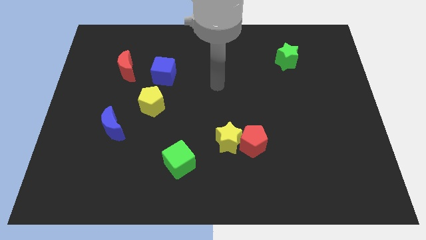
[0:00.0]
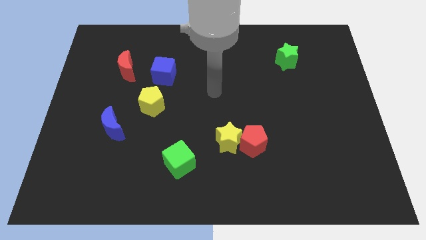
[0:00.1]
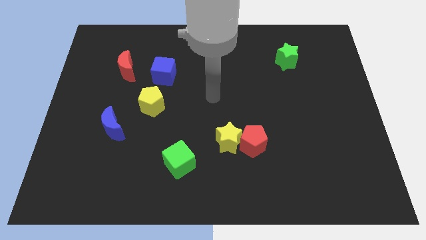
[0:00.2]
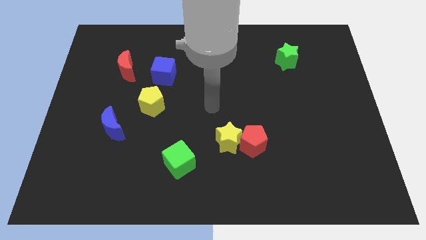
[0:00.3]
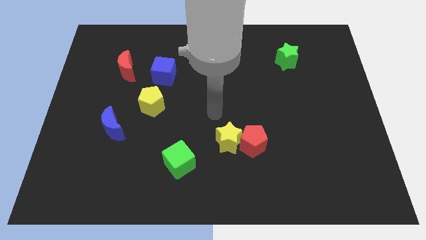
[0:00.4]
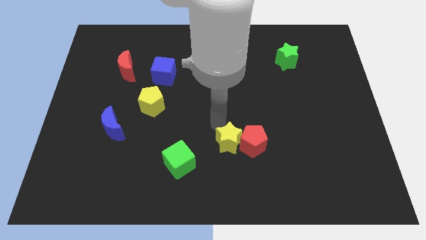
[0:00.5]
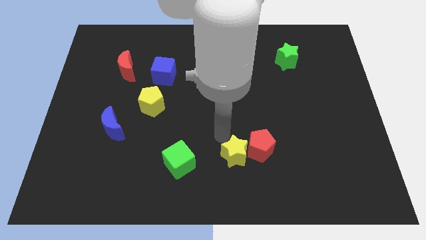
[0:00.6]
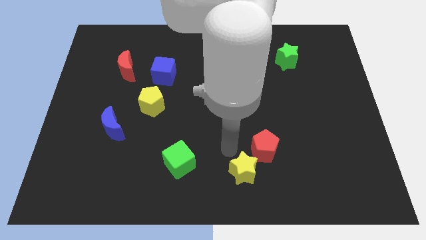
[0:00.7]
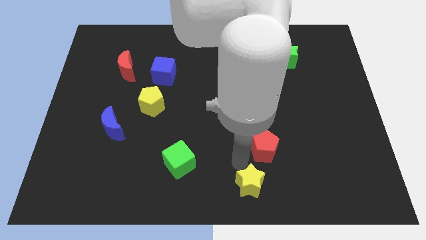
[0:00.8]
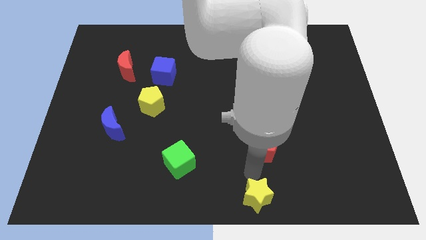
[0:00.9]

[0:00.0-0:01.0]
pull the red pentagon apart from the yellow star

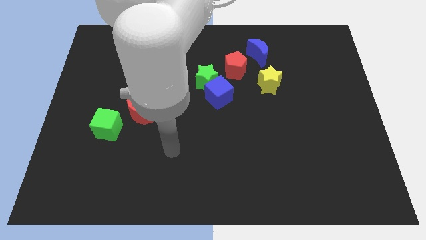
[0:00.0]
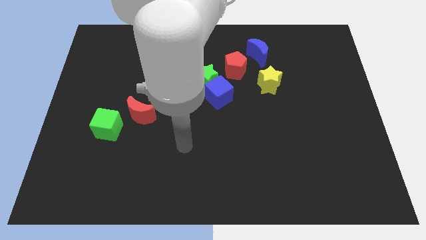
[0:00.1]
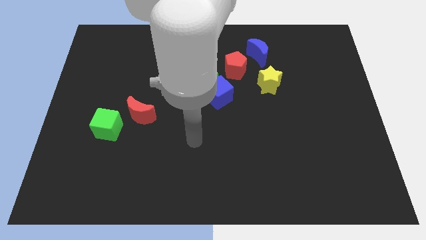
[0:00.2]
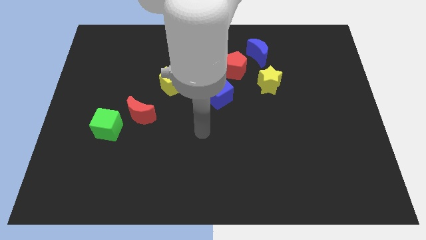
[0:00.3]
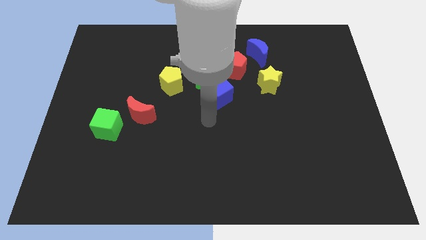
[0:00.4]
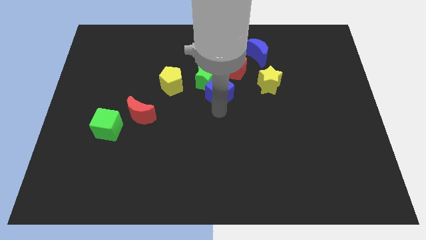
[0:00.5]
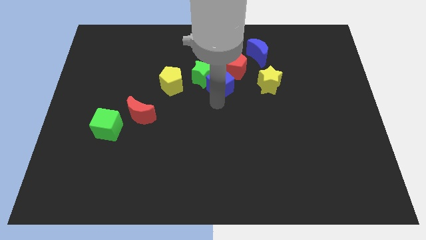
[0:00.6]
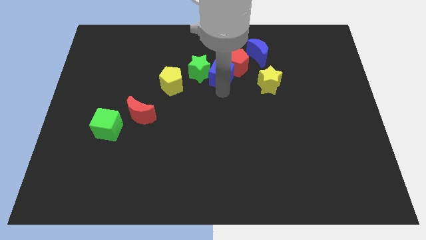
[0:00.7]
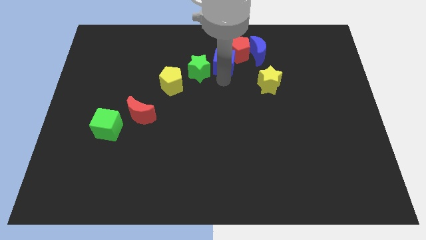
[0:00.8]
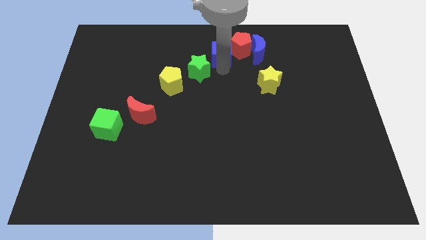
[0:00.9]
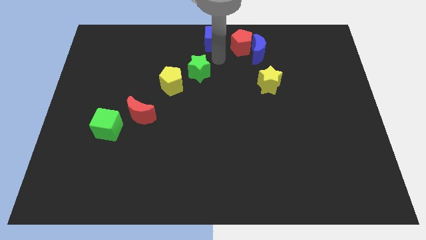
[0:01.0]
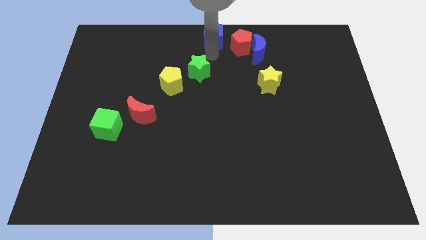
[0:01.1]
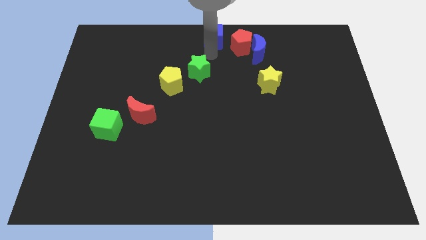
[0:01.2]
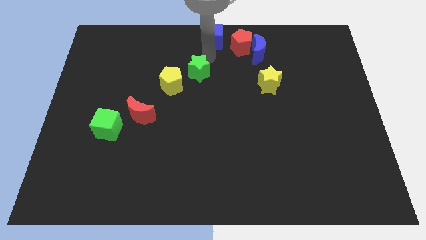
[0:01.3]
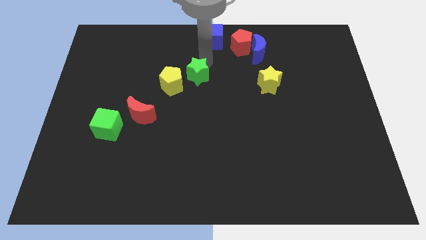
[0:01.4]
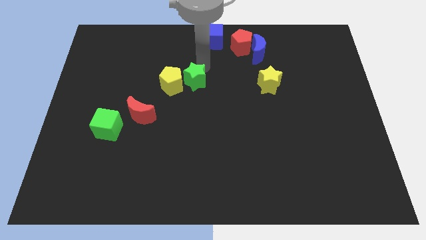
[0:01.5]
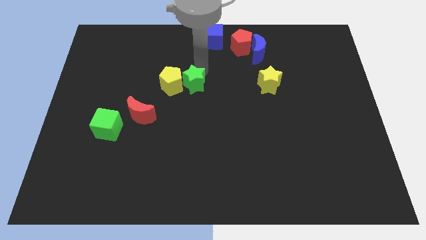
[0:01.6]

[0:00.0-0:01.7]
pull the green star apart from the group of blocks

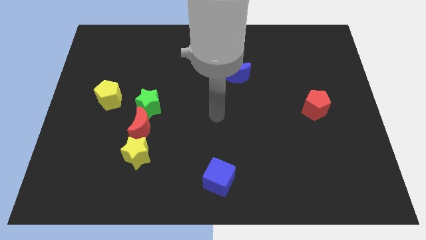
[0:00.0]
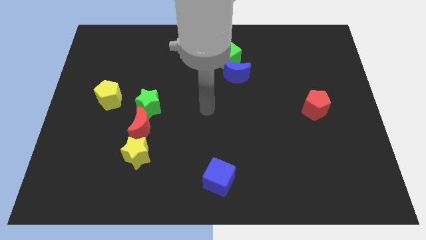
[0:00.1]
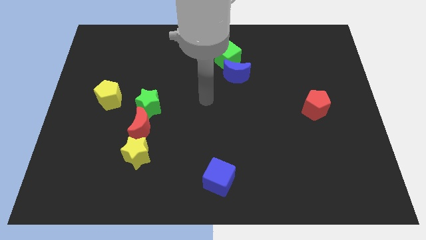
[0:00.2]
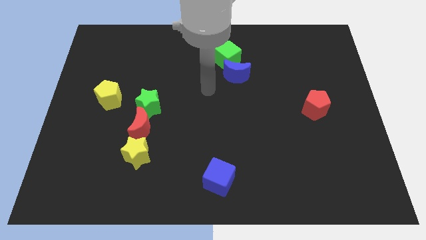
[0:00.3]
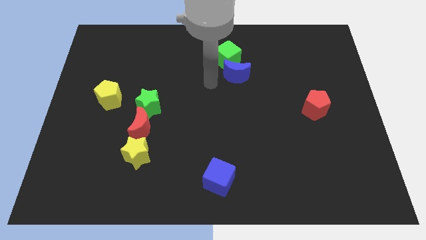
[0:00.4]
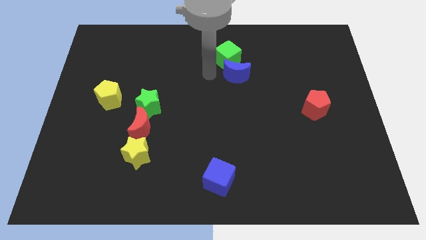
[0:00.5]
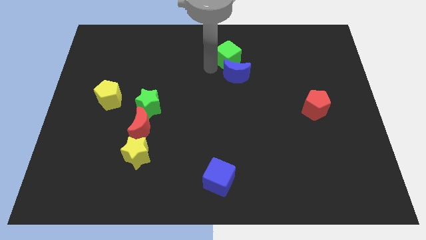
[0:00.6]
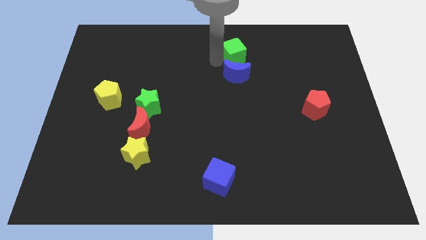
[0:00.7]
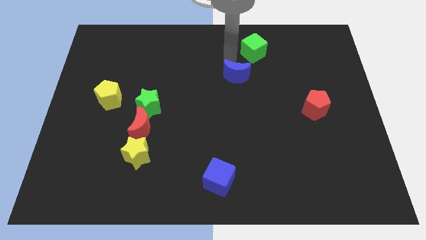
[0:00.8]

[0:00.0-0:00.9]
move the blue moon away from the green cube

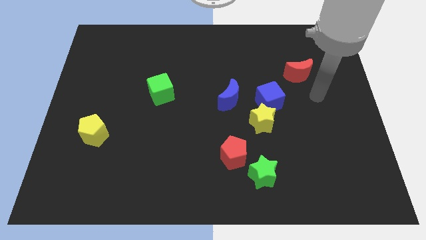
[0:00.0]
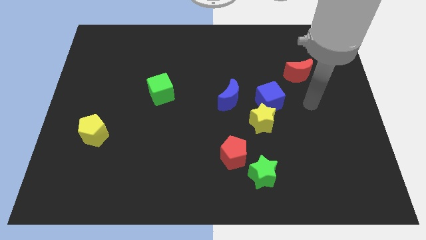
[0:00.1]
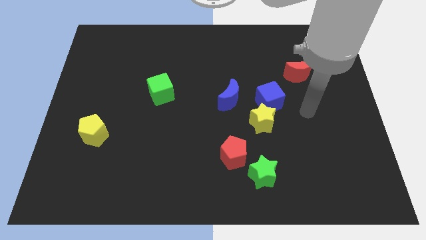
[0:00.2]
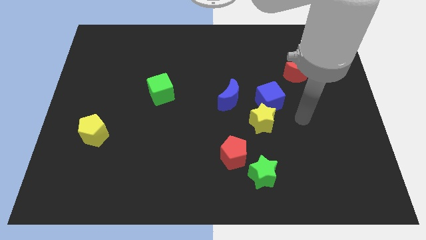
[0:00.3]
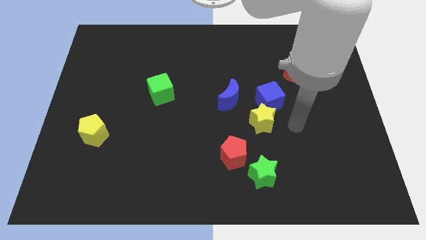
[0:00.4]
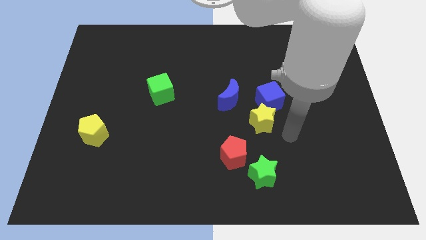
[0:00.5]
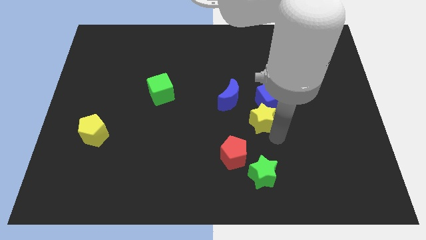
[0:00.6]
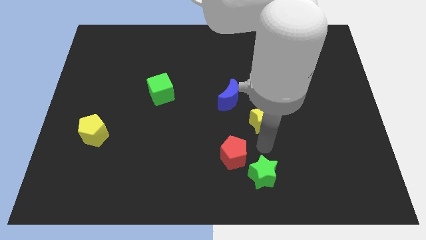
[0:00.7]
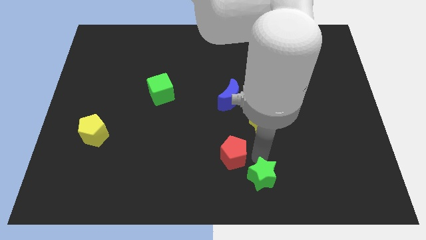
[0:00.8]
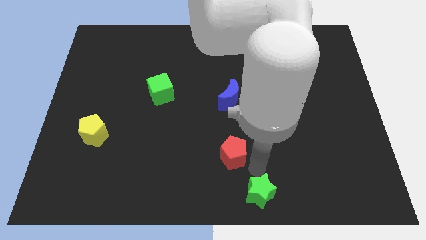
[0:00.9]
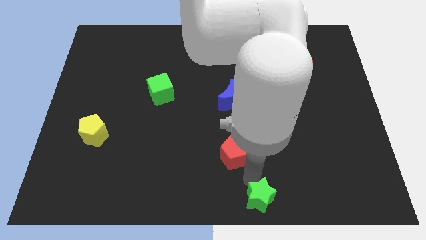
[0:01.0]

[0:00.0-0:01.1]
separate the red pentagon from the green star

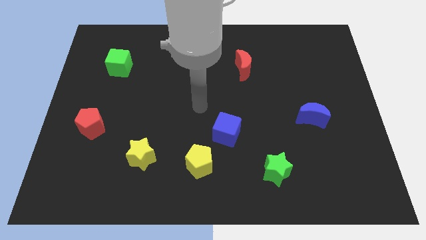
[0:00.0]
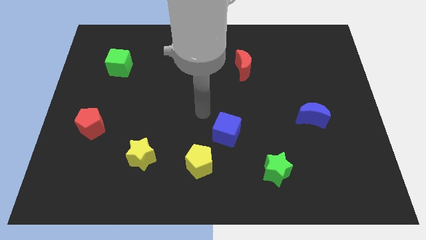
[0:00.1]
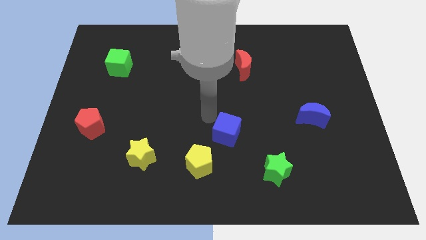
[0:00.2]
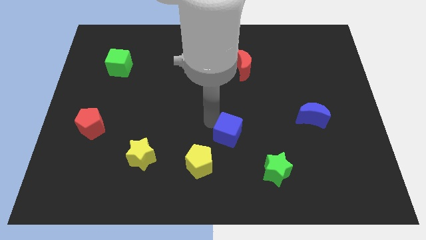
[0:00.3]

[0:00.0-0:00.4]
pull the blue cube apart from the yellow pentagon

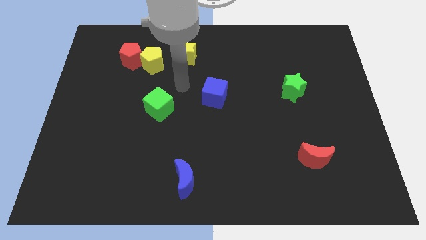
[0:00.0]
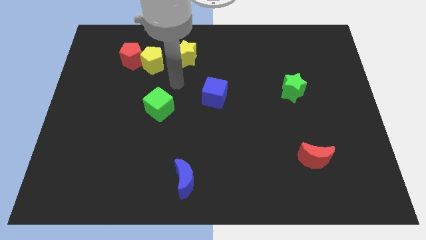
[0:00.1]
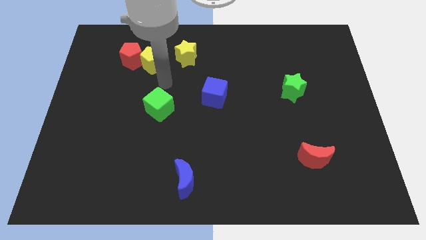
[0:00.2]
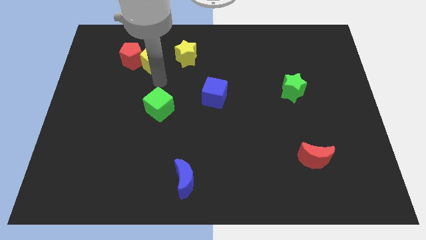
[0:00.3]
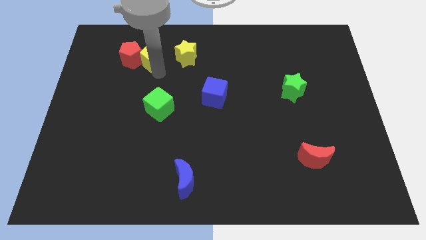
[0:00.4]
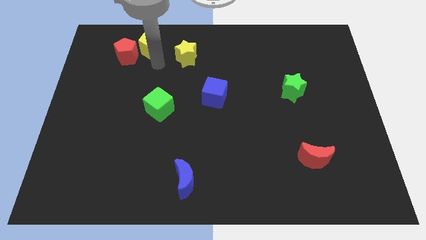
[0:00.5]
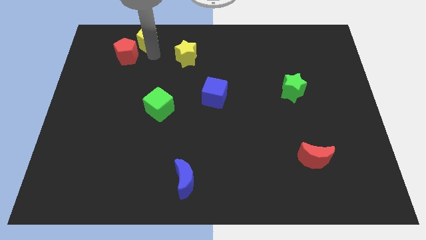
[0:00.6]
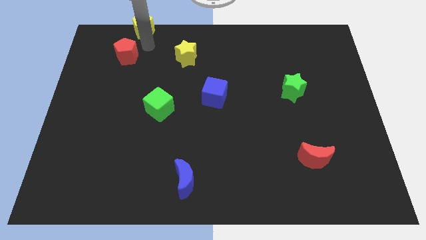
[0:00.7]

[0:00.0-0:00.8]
separate the red pentagon from the yellow pentagon

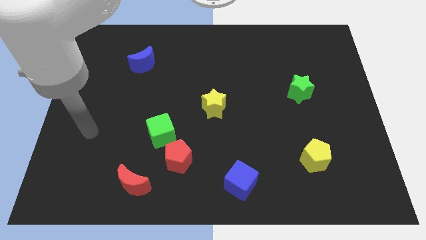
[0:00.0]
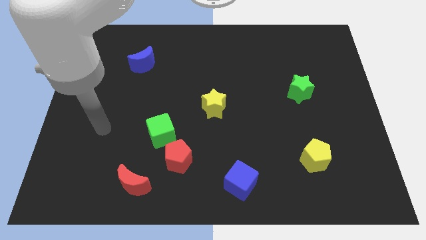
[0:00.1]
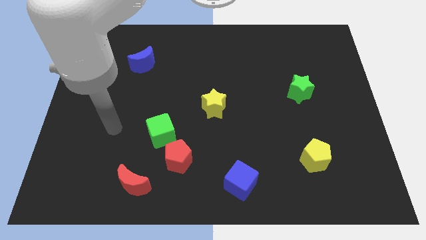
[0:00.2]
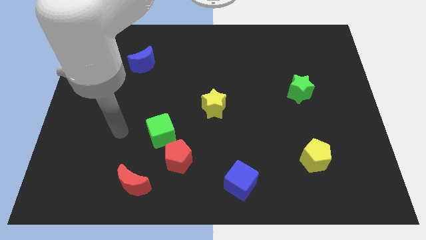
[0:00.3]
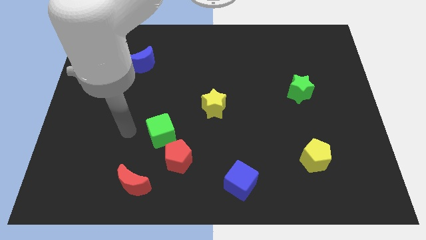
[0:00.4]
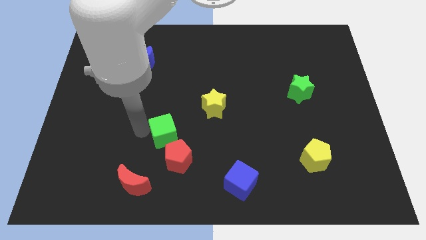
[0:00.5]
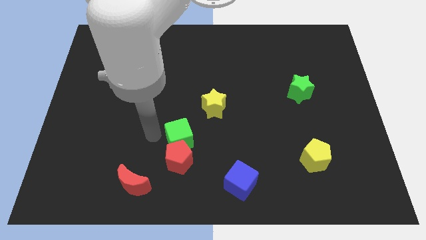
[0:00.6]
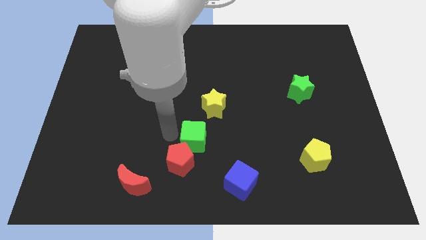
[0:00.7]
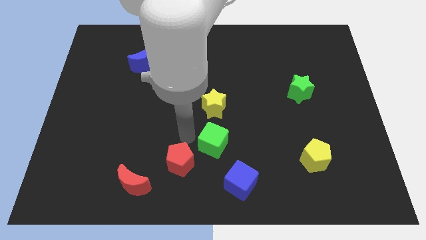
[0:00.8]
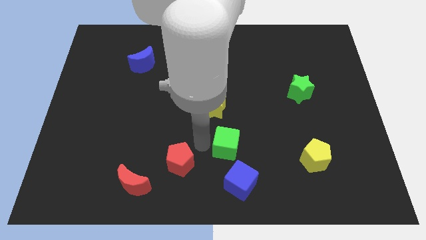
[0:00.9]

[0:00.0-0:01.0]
move the red pentagon away from the green cube

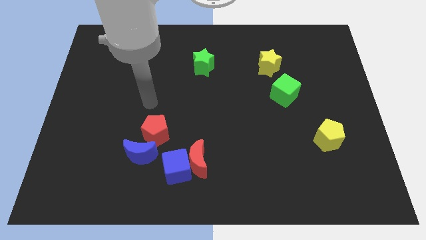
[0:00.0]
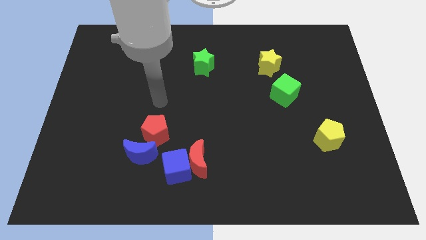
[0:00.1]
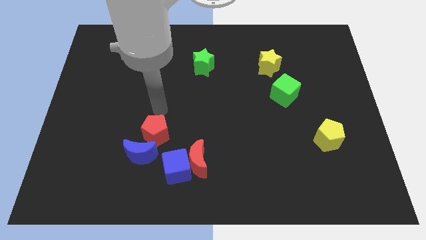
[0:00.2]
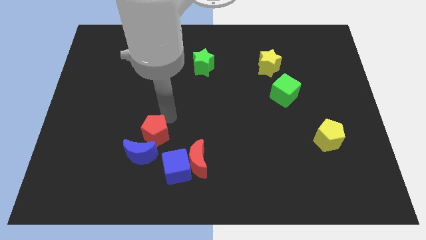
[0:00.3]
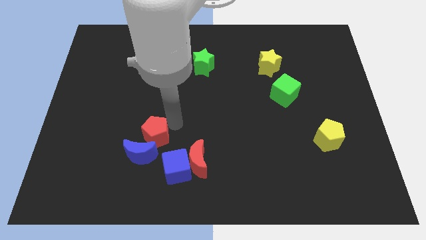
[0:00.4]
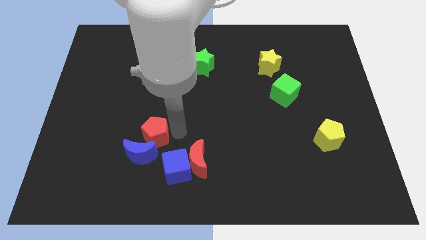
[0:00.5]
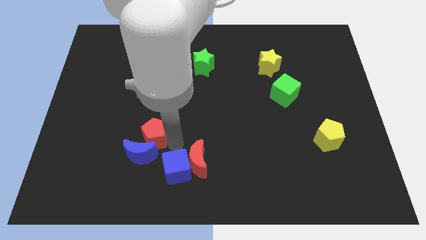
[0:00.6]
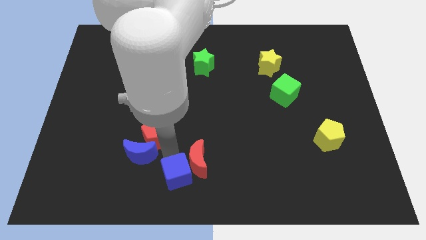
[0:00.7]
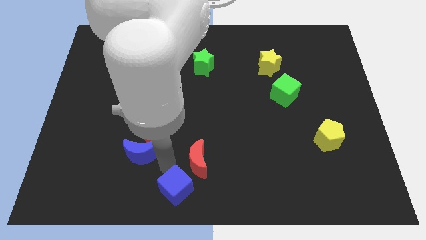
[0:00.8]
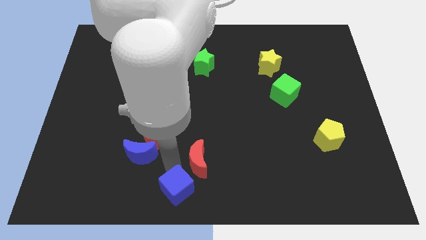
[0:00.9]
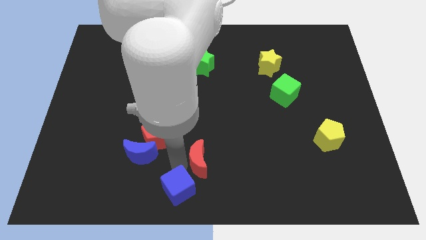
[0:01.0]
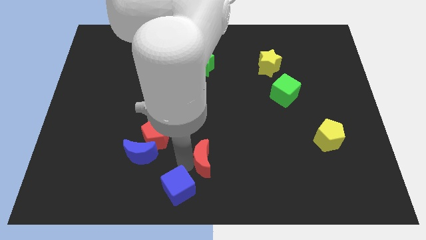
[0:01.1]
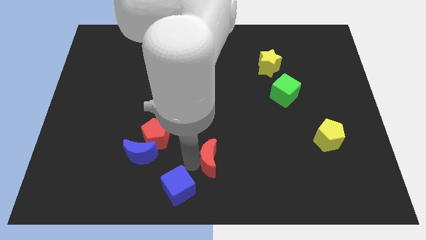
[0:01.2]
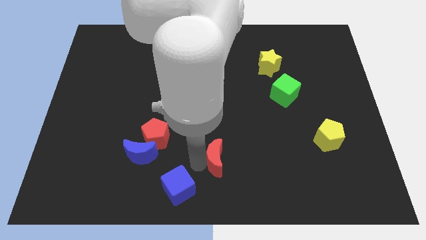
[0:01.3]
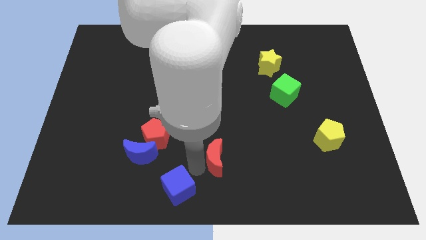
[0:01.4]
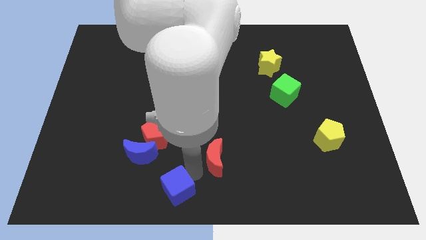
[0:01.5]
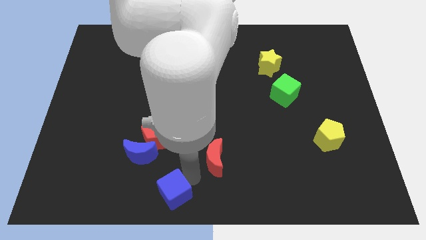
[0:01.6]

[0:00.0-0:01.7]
separate the red moon from the blue cube

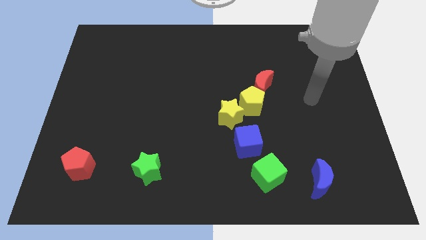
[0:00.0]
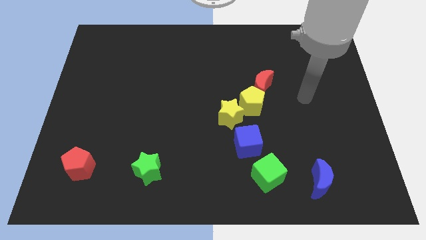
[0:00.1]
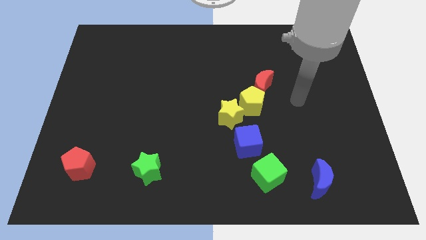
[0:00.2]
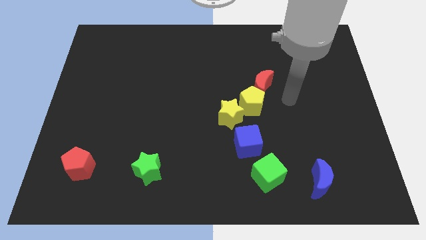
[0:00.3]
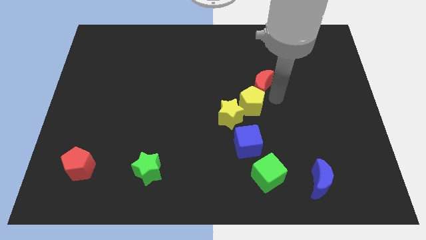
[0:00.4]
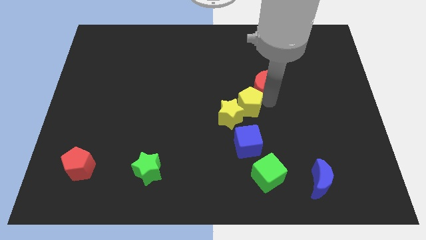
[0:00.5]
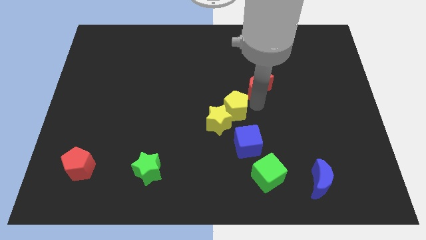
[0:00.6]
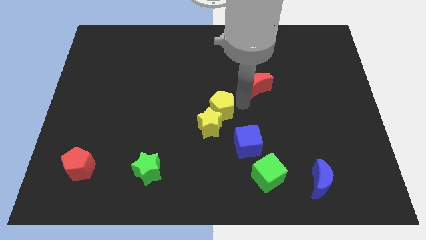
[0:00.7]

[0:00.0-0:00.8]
move the red moon away from the yellow pentagon
